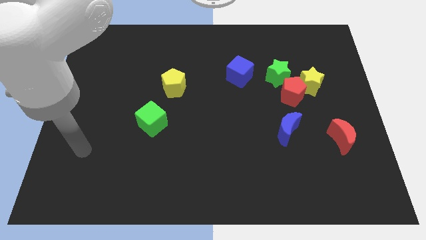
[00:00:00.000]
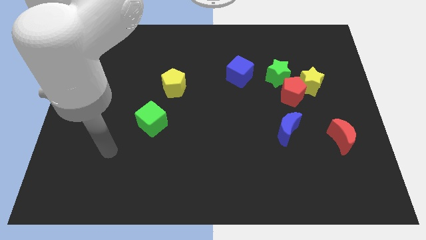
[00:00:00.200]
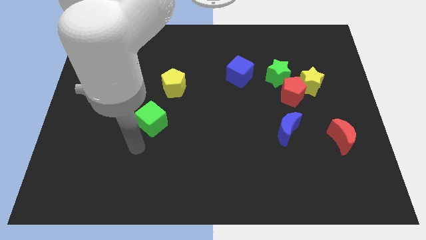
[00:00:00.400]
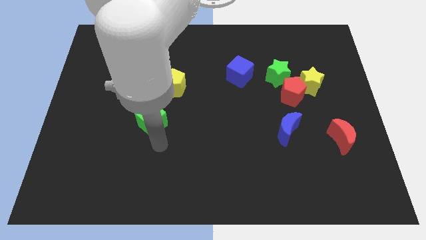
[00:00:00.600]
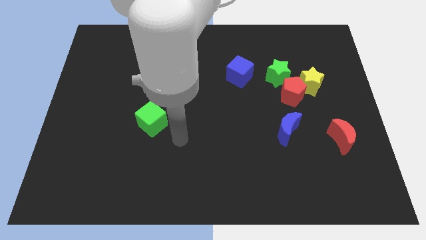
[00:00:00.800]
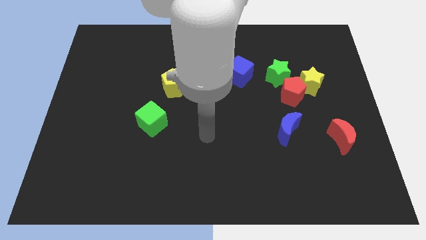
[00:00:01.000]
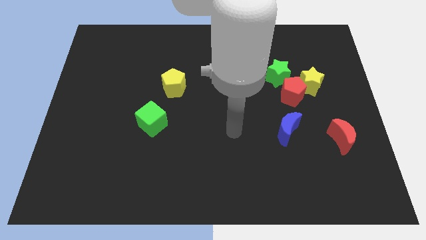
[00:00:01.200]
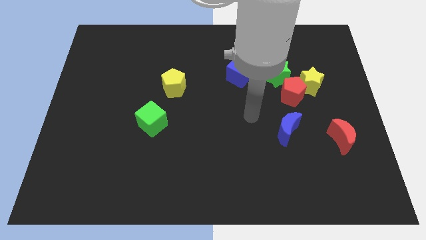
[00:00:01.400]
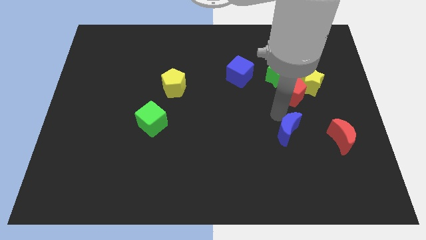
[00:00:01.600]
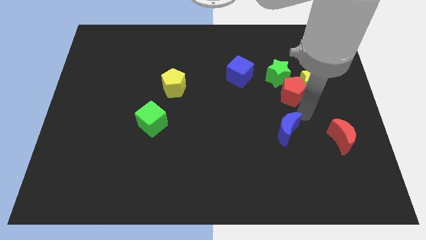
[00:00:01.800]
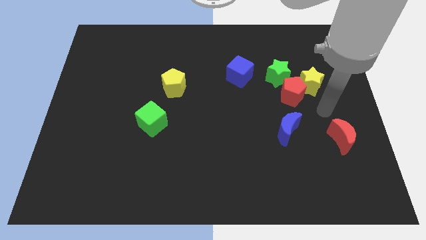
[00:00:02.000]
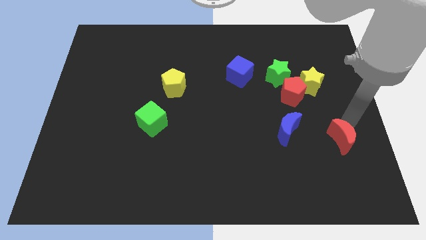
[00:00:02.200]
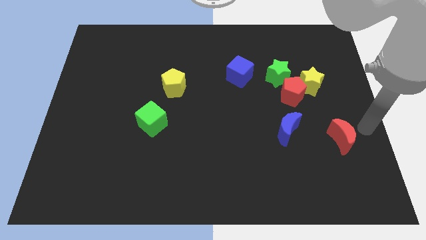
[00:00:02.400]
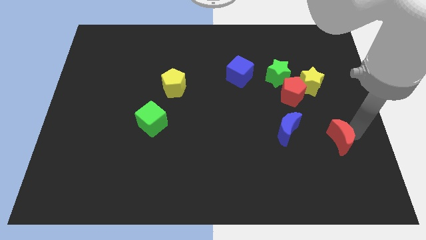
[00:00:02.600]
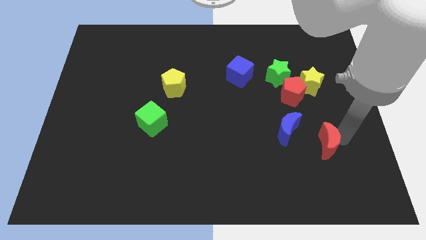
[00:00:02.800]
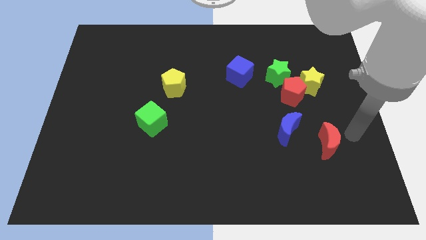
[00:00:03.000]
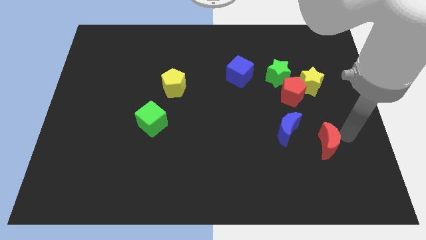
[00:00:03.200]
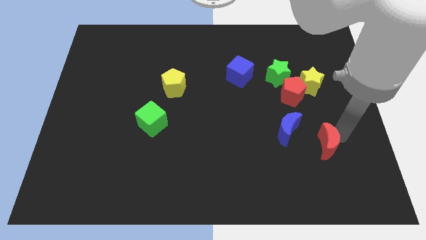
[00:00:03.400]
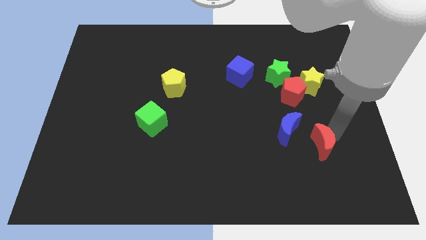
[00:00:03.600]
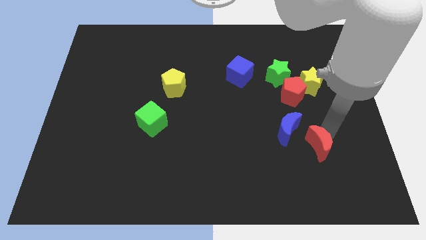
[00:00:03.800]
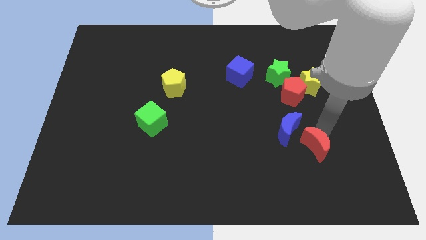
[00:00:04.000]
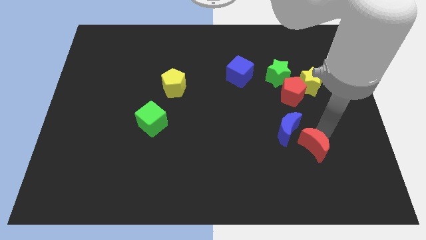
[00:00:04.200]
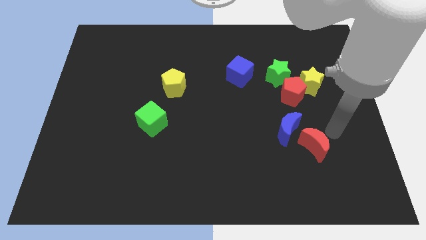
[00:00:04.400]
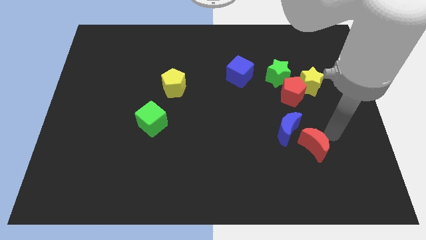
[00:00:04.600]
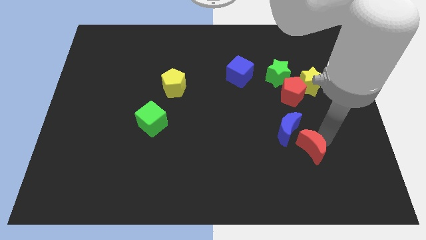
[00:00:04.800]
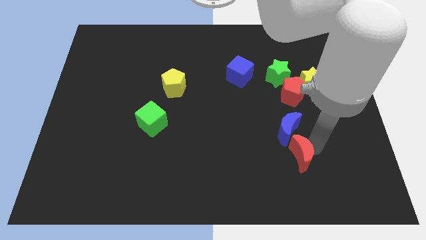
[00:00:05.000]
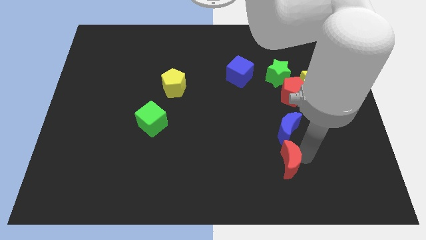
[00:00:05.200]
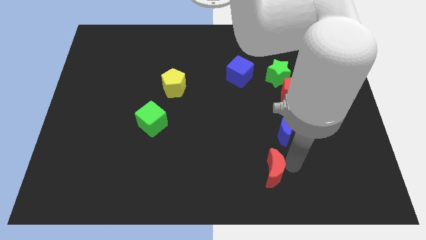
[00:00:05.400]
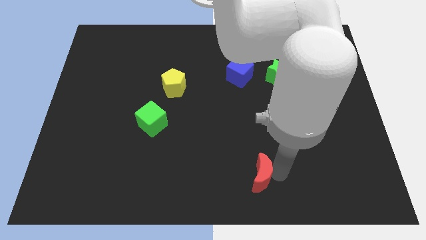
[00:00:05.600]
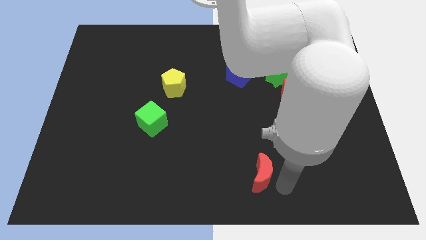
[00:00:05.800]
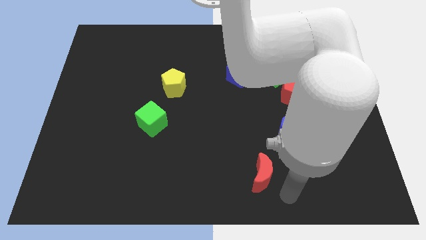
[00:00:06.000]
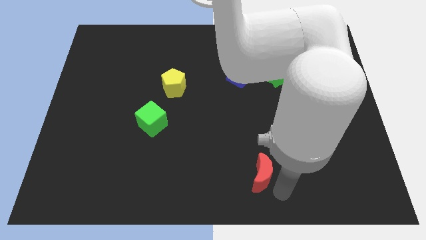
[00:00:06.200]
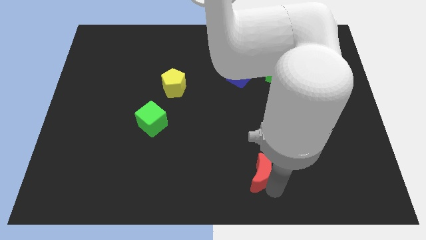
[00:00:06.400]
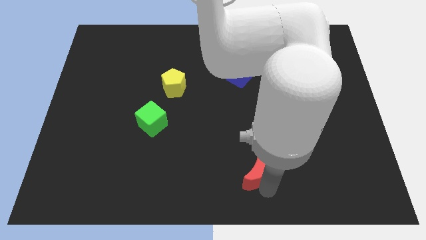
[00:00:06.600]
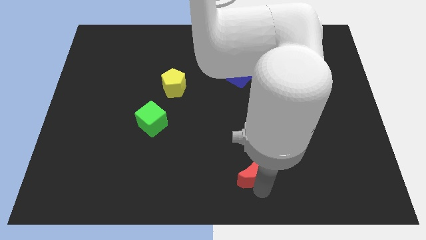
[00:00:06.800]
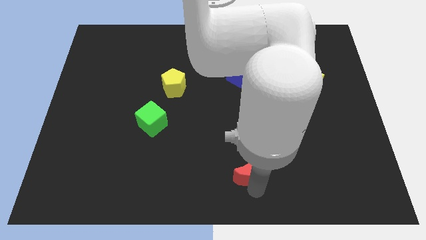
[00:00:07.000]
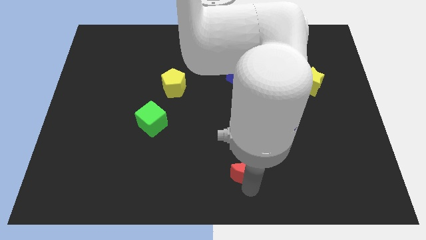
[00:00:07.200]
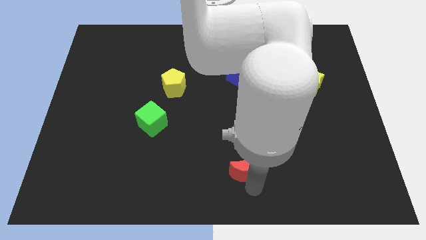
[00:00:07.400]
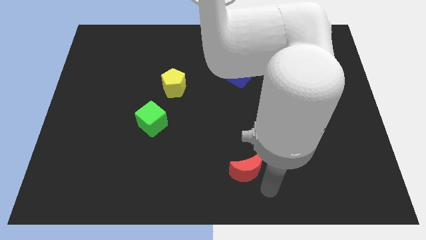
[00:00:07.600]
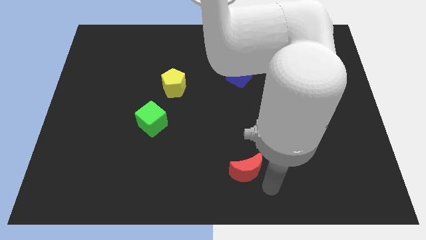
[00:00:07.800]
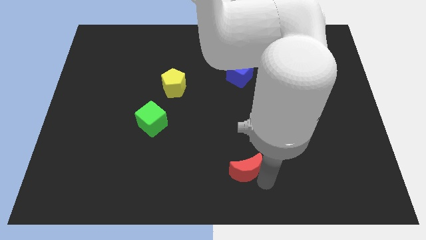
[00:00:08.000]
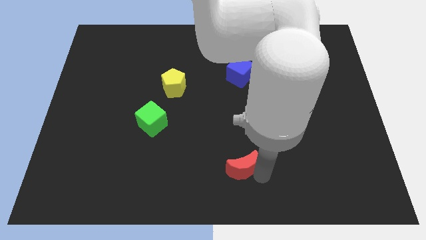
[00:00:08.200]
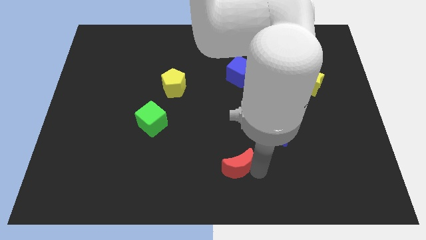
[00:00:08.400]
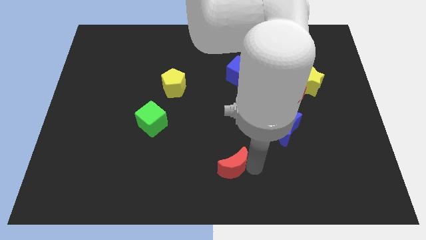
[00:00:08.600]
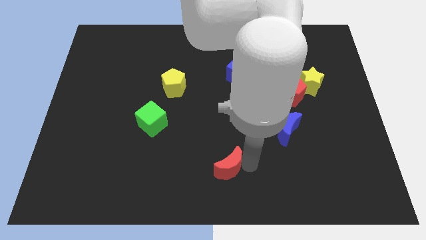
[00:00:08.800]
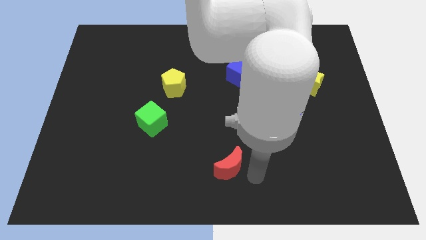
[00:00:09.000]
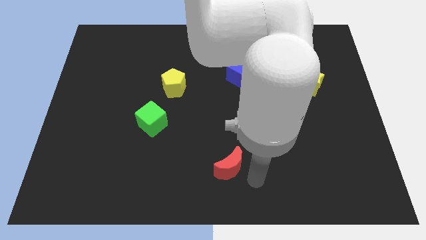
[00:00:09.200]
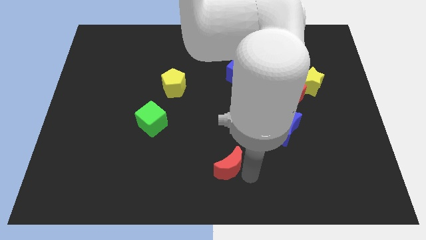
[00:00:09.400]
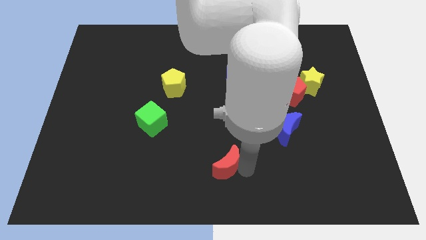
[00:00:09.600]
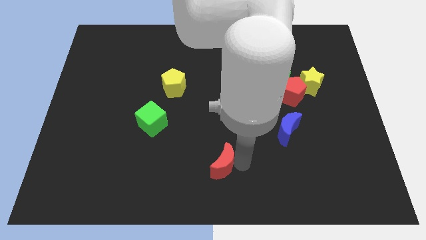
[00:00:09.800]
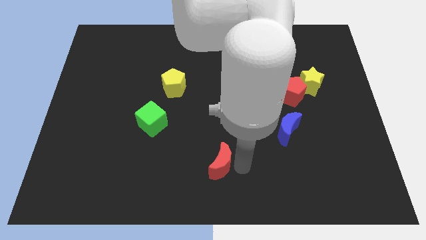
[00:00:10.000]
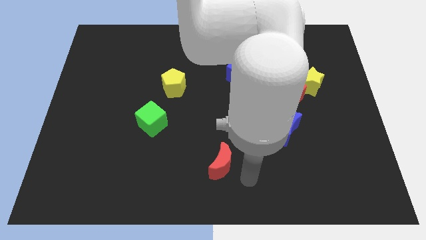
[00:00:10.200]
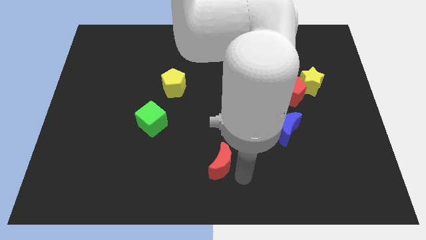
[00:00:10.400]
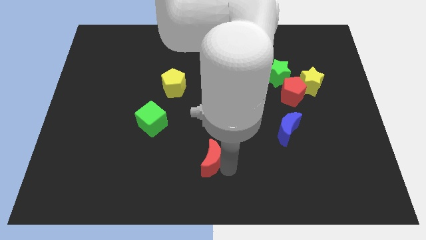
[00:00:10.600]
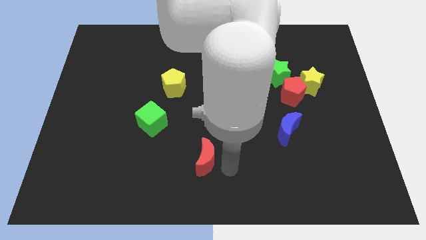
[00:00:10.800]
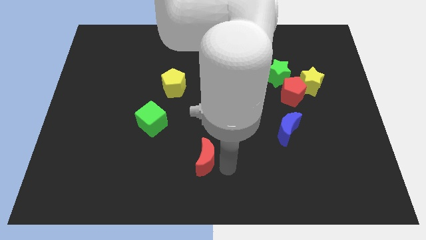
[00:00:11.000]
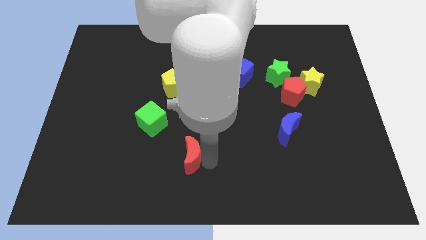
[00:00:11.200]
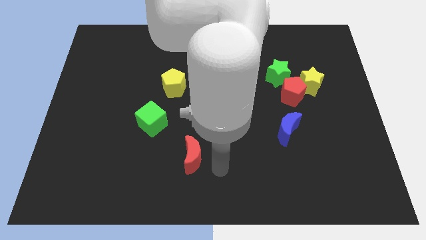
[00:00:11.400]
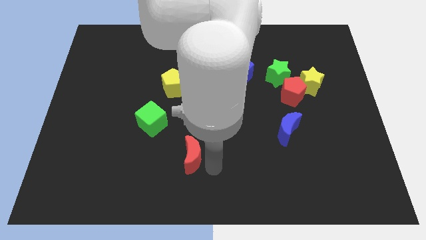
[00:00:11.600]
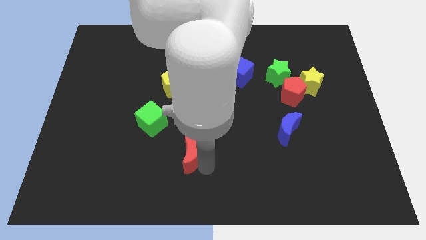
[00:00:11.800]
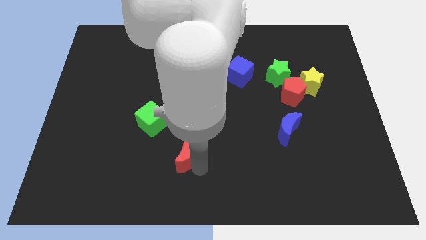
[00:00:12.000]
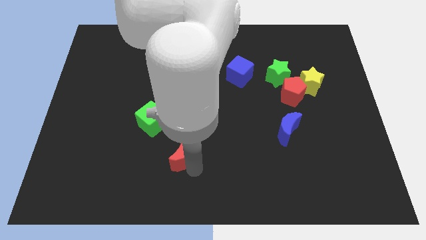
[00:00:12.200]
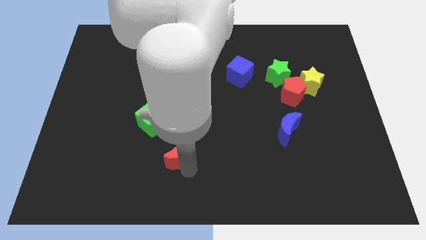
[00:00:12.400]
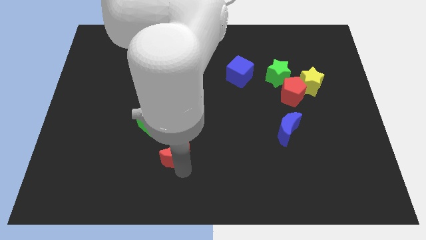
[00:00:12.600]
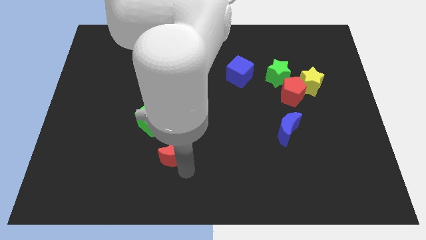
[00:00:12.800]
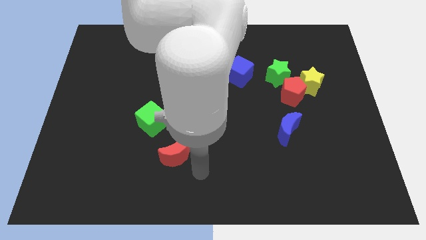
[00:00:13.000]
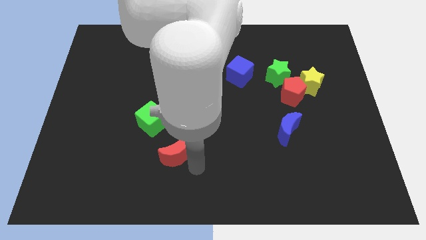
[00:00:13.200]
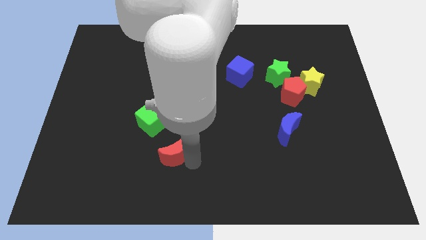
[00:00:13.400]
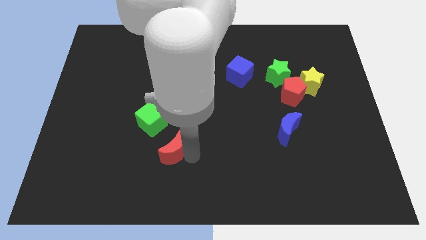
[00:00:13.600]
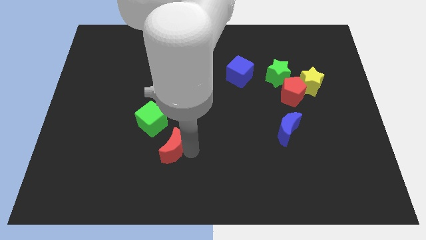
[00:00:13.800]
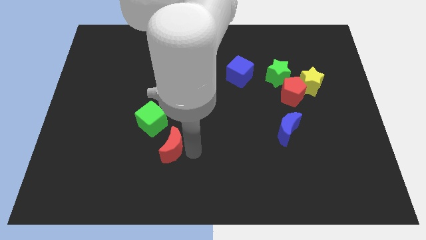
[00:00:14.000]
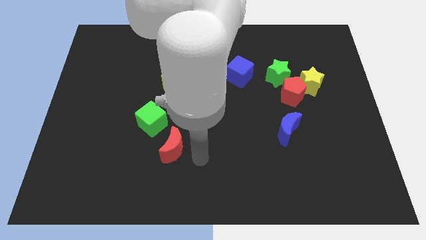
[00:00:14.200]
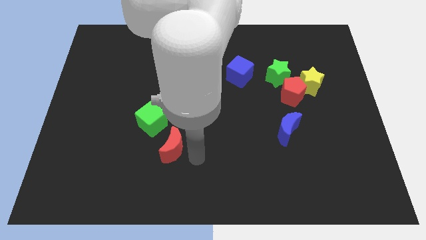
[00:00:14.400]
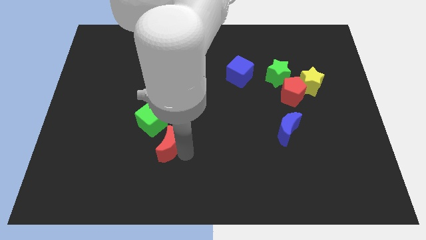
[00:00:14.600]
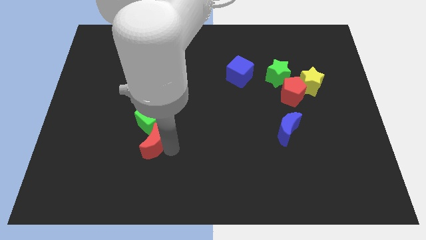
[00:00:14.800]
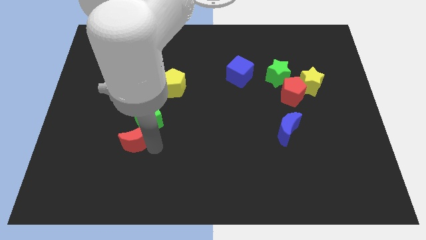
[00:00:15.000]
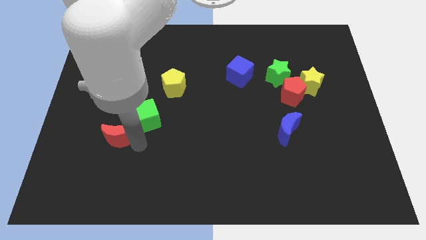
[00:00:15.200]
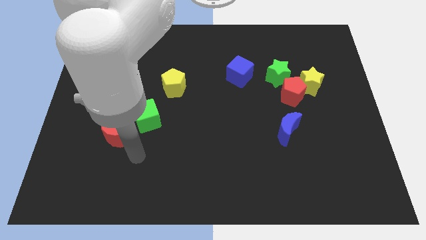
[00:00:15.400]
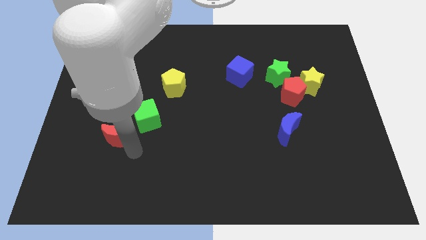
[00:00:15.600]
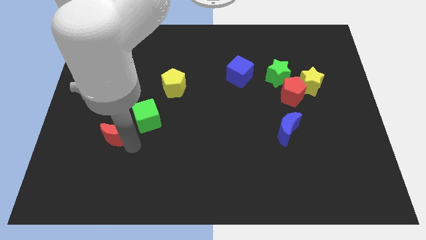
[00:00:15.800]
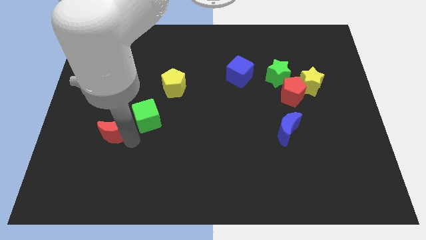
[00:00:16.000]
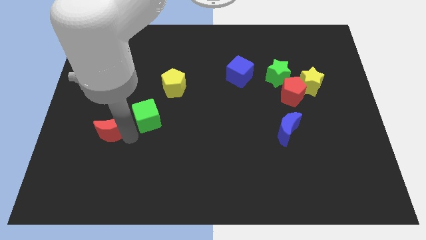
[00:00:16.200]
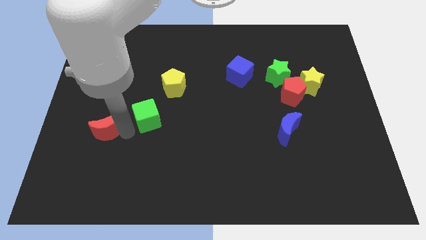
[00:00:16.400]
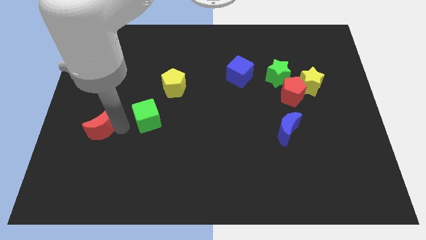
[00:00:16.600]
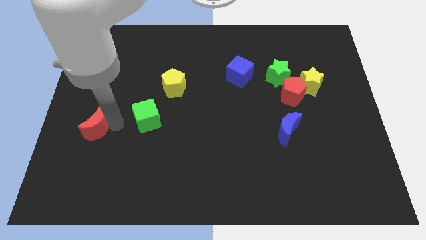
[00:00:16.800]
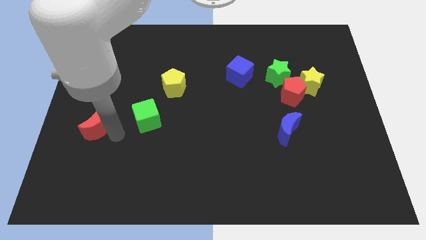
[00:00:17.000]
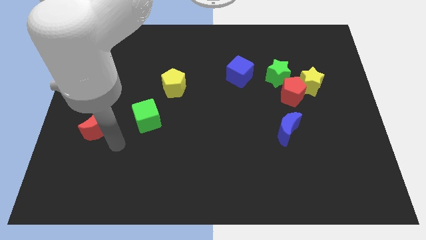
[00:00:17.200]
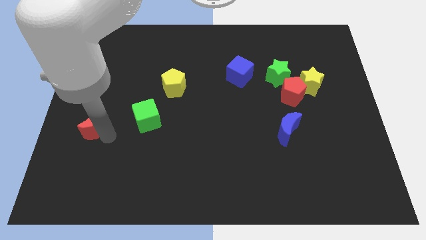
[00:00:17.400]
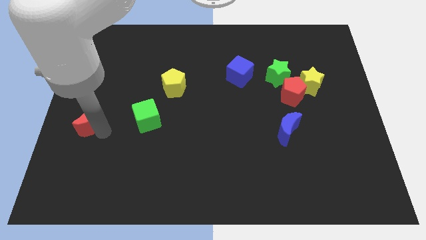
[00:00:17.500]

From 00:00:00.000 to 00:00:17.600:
move the red moon to the center left
